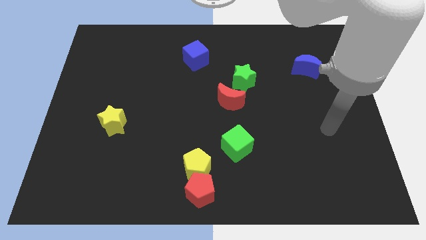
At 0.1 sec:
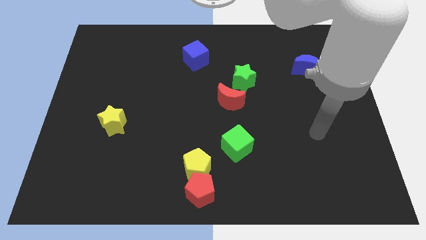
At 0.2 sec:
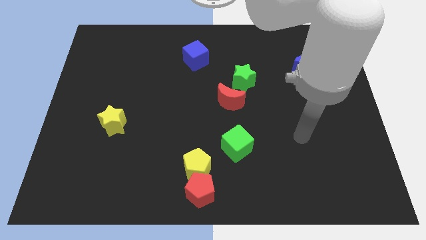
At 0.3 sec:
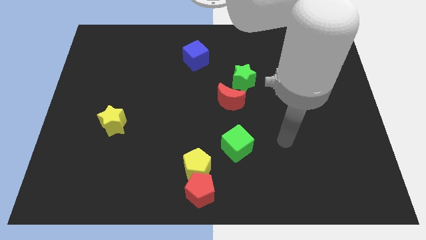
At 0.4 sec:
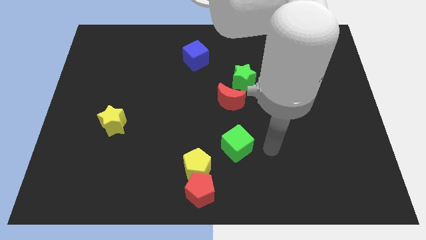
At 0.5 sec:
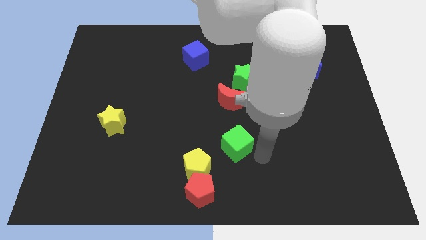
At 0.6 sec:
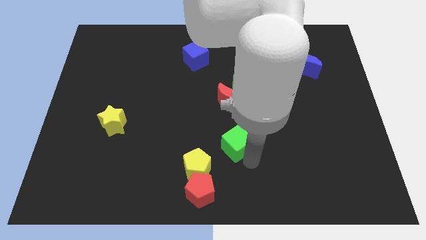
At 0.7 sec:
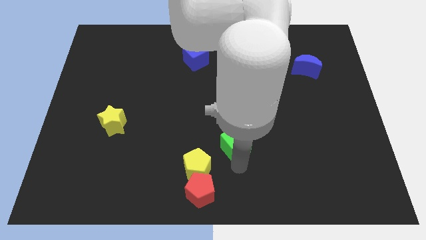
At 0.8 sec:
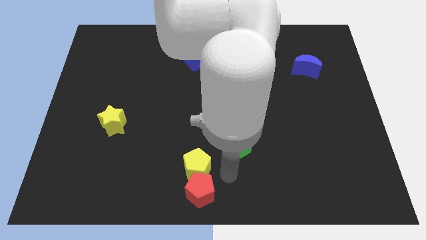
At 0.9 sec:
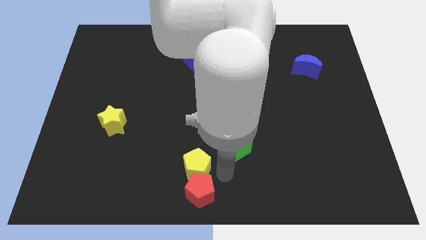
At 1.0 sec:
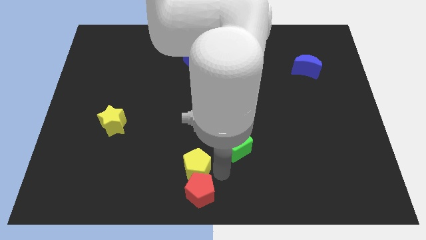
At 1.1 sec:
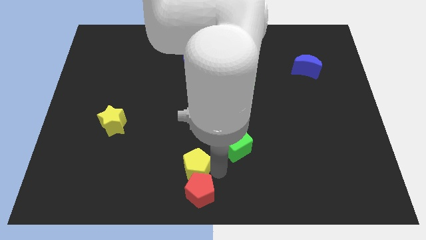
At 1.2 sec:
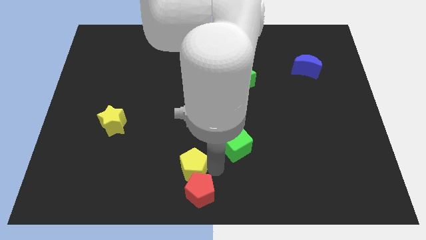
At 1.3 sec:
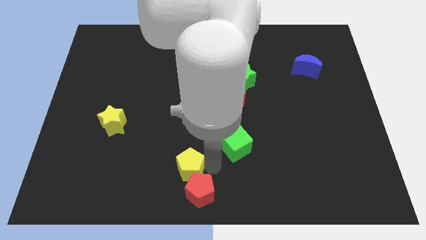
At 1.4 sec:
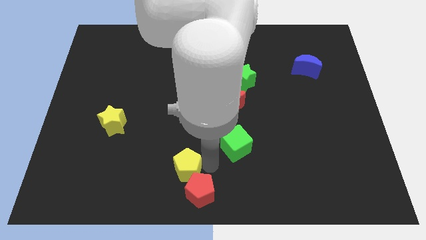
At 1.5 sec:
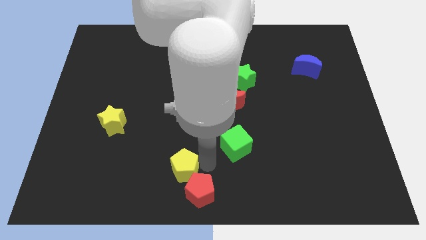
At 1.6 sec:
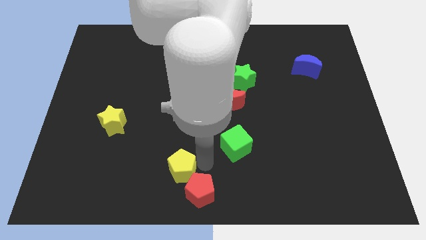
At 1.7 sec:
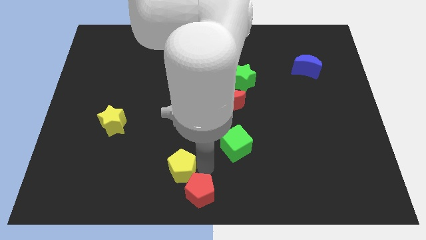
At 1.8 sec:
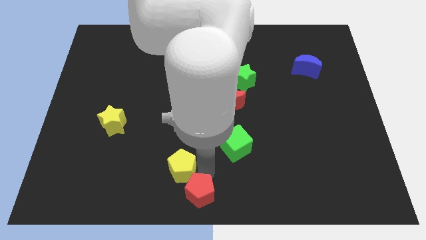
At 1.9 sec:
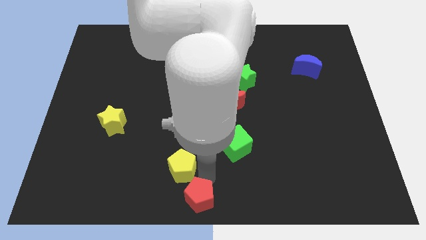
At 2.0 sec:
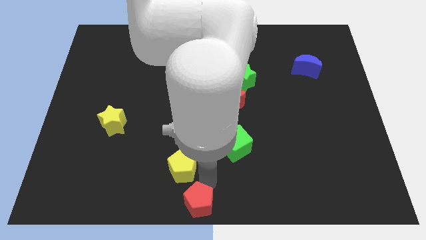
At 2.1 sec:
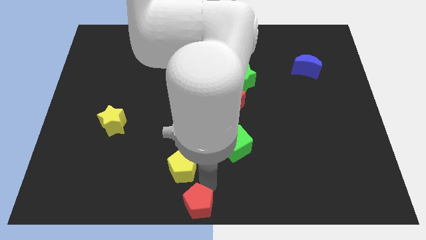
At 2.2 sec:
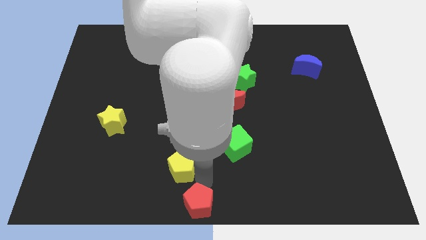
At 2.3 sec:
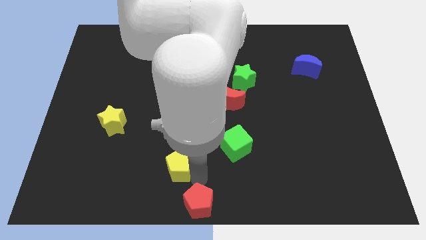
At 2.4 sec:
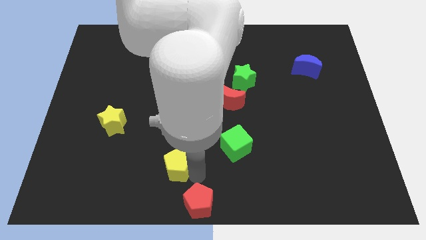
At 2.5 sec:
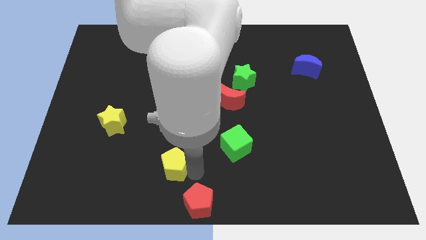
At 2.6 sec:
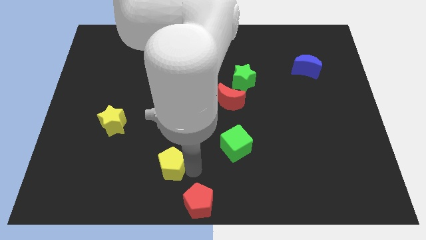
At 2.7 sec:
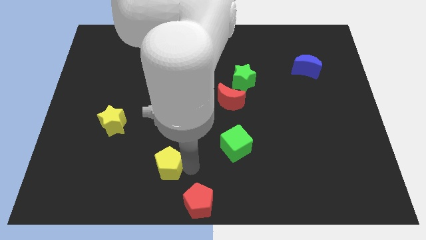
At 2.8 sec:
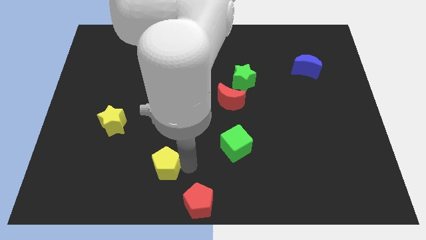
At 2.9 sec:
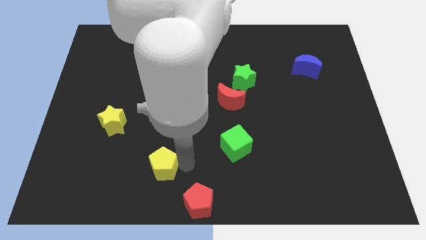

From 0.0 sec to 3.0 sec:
push the yellow pentagon to the left a bit

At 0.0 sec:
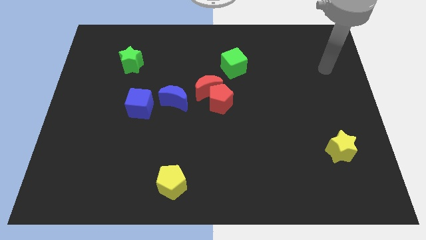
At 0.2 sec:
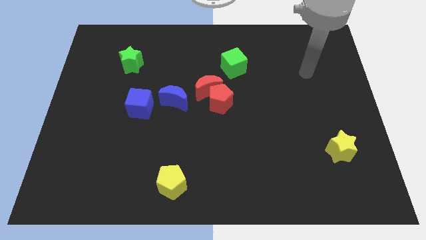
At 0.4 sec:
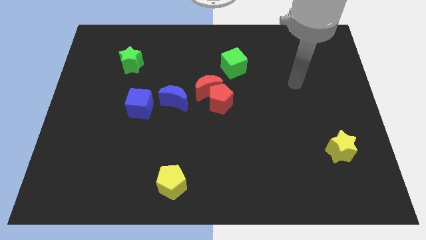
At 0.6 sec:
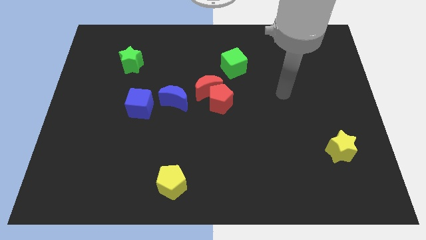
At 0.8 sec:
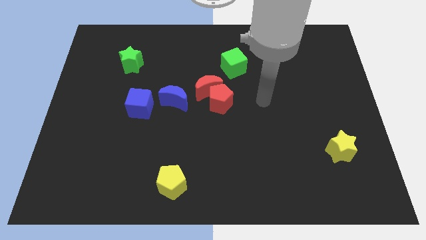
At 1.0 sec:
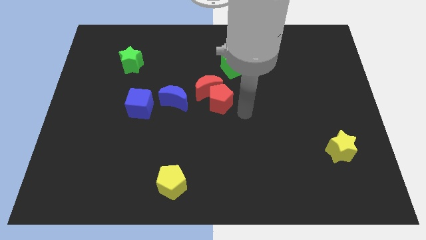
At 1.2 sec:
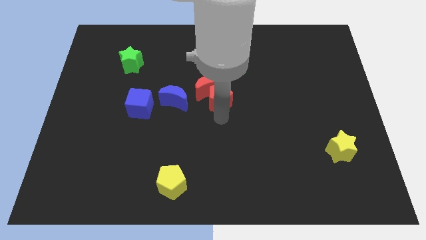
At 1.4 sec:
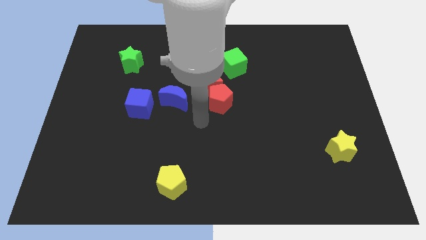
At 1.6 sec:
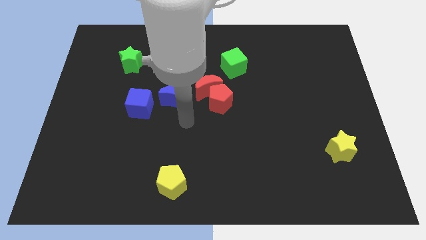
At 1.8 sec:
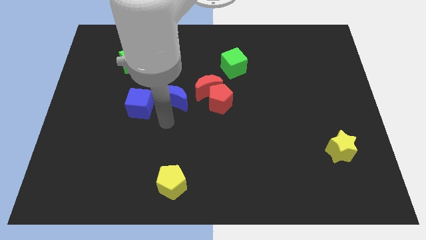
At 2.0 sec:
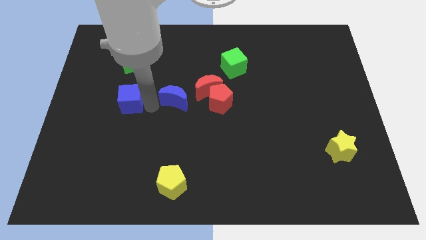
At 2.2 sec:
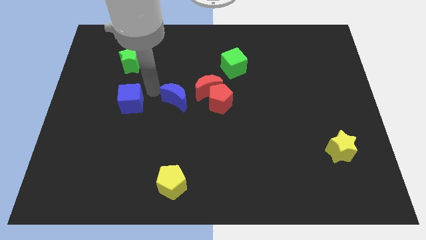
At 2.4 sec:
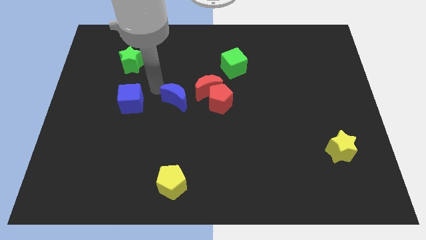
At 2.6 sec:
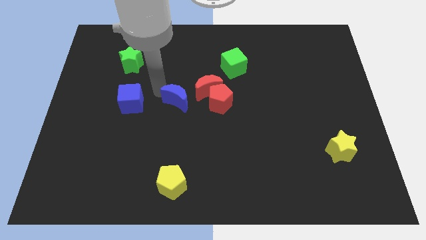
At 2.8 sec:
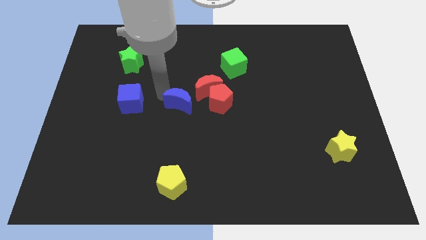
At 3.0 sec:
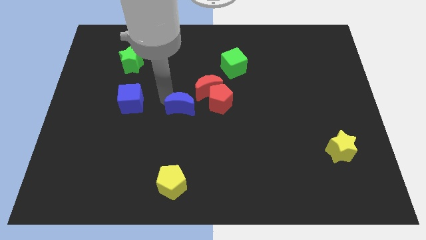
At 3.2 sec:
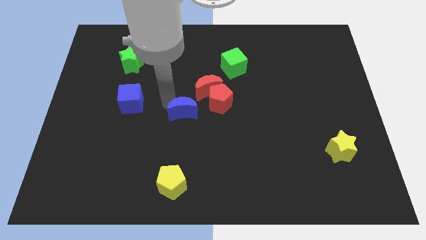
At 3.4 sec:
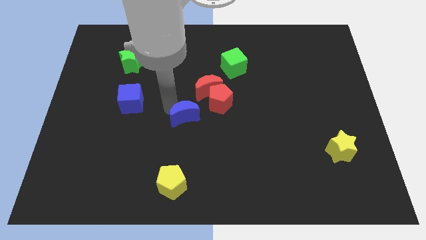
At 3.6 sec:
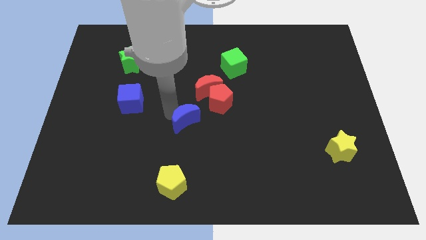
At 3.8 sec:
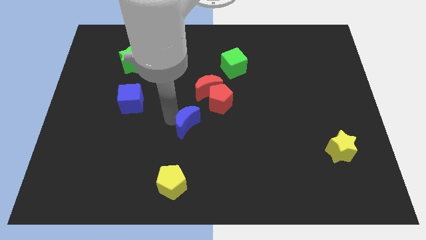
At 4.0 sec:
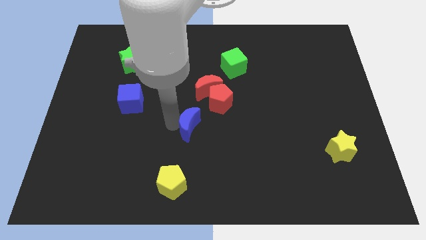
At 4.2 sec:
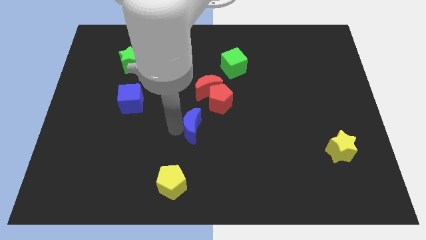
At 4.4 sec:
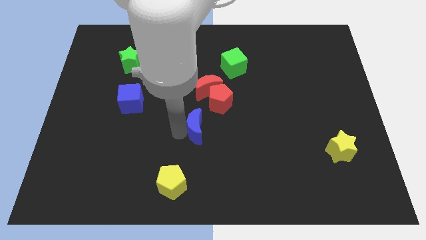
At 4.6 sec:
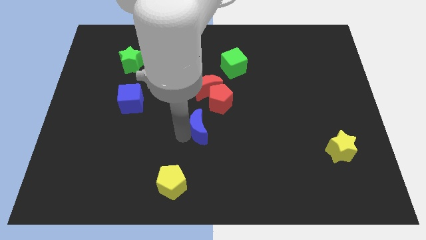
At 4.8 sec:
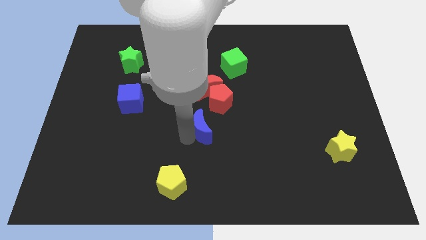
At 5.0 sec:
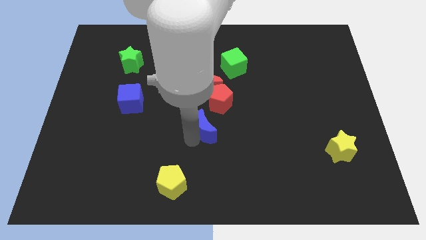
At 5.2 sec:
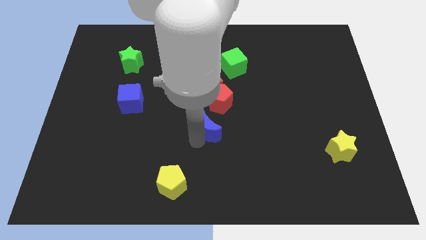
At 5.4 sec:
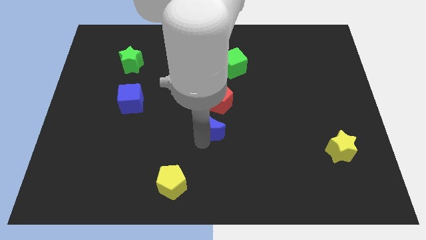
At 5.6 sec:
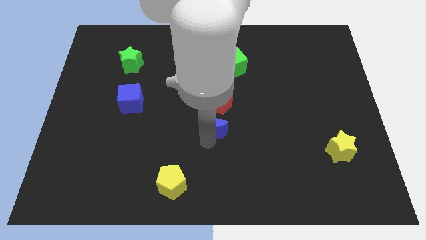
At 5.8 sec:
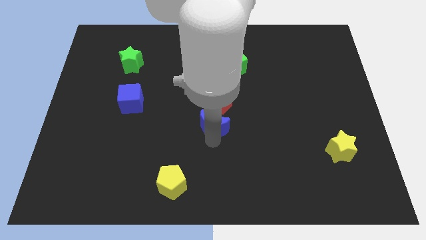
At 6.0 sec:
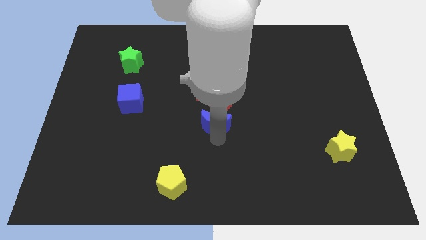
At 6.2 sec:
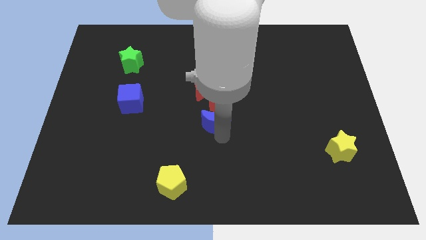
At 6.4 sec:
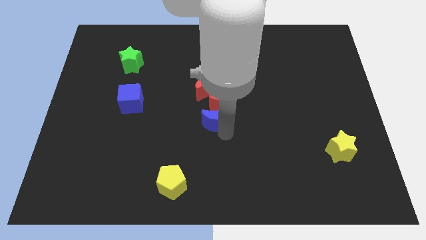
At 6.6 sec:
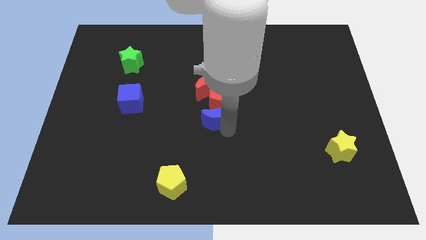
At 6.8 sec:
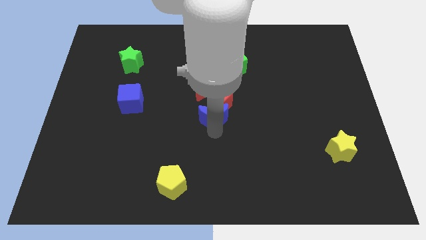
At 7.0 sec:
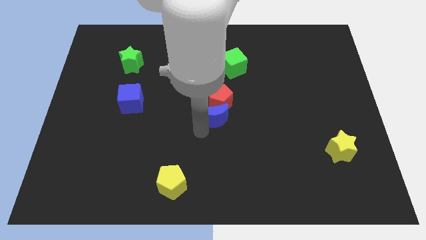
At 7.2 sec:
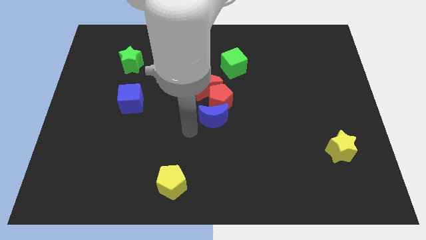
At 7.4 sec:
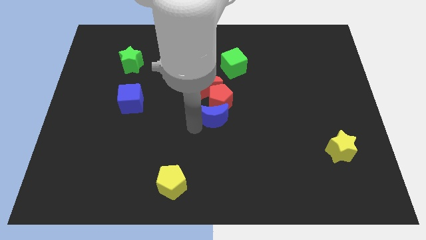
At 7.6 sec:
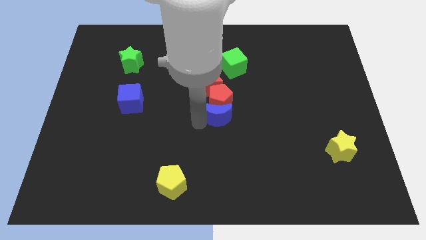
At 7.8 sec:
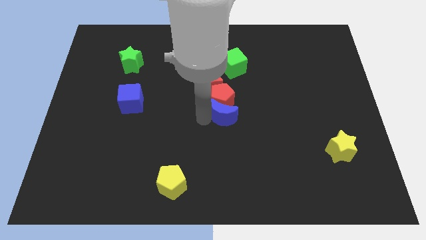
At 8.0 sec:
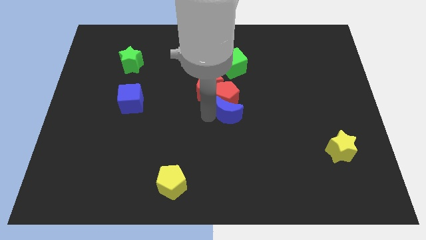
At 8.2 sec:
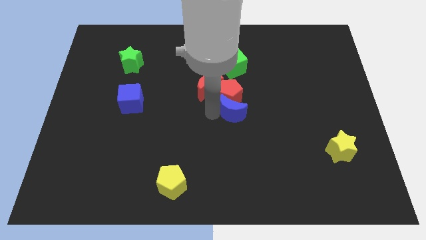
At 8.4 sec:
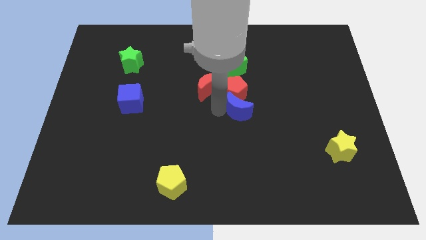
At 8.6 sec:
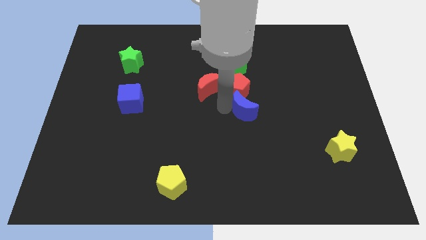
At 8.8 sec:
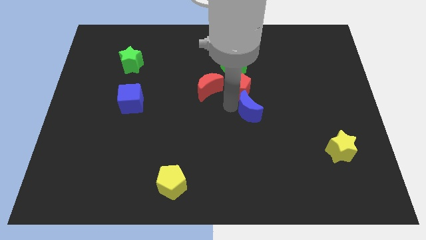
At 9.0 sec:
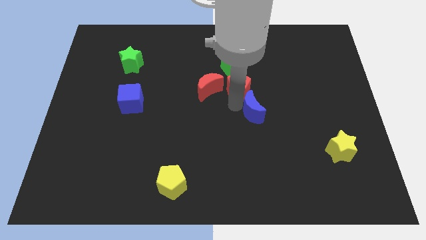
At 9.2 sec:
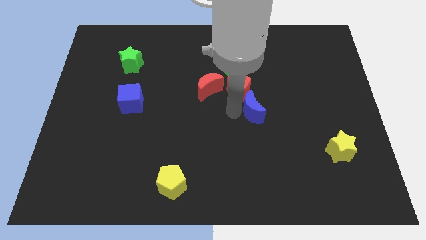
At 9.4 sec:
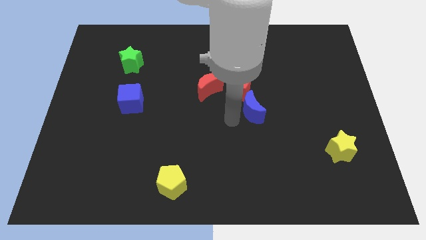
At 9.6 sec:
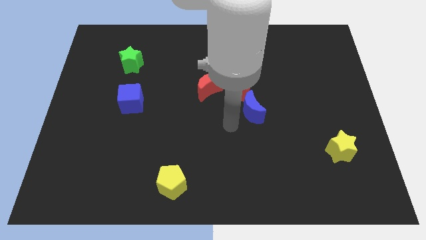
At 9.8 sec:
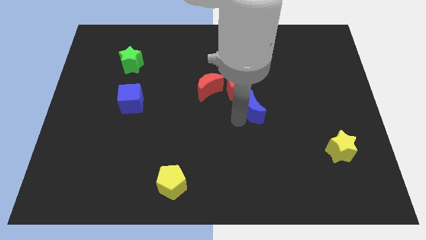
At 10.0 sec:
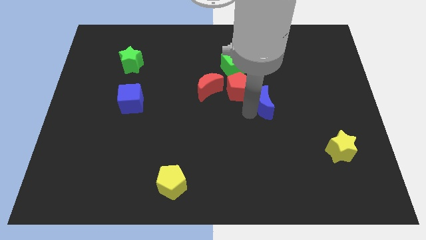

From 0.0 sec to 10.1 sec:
move the blue moon right
